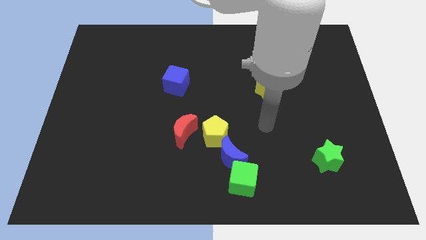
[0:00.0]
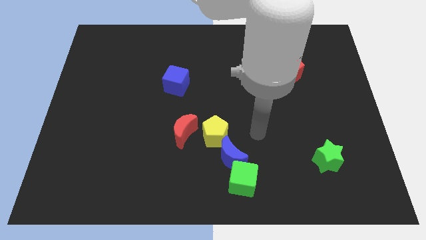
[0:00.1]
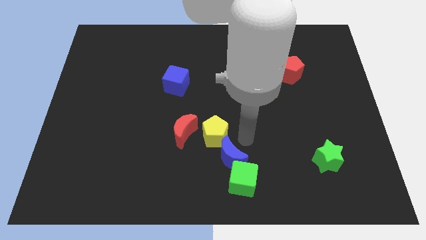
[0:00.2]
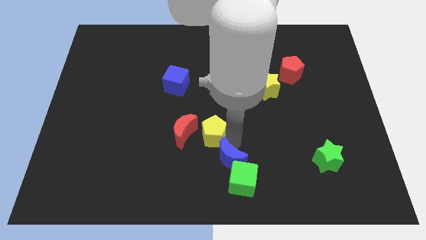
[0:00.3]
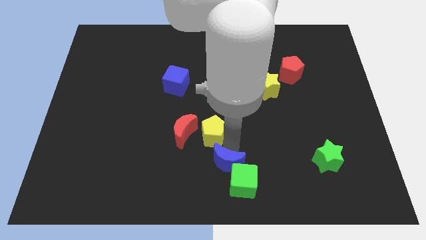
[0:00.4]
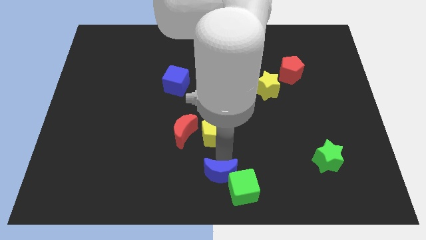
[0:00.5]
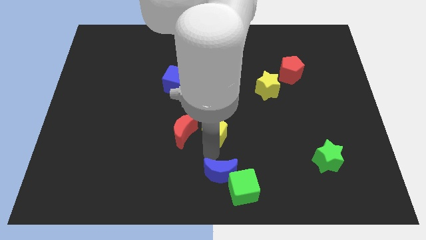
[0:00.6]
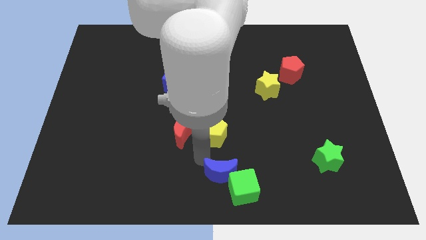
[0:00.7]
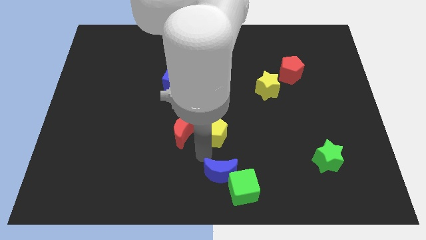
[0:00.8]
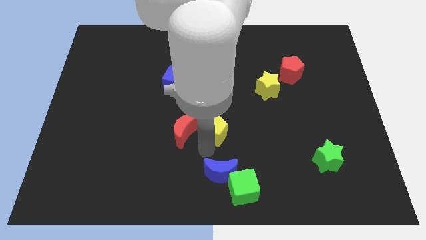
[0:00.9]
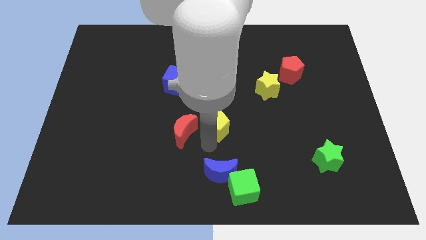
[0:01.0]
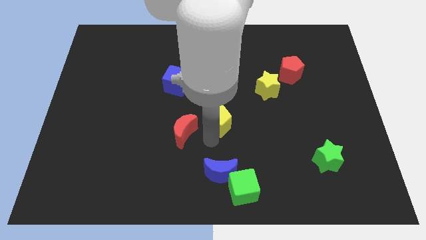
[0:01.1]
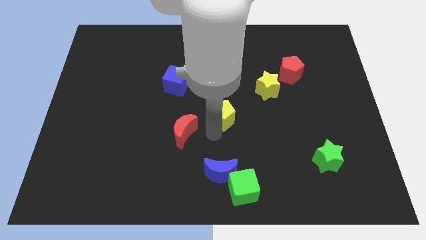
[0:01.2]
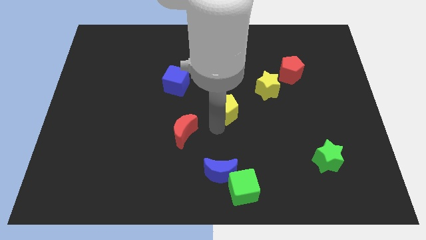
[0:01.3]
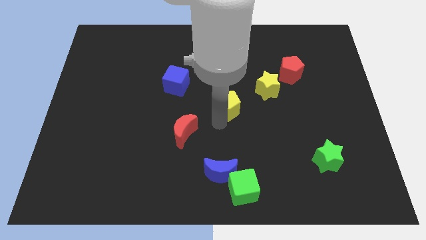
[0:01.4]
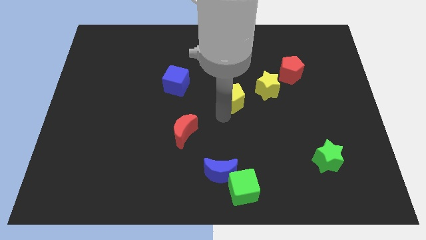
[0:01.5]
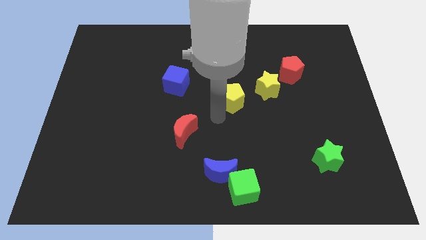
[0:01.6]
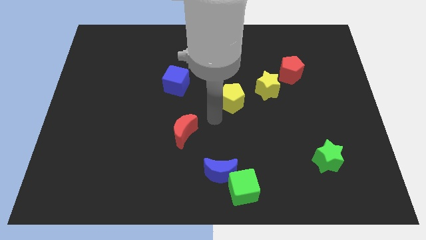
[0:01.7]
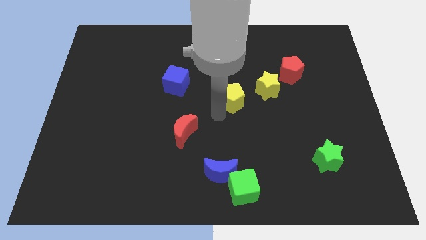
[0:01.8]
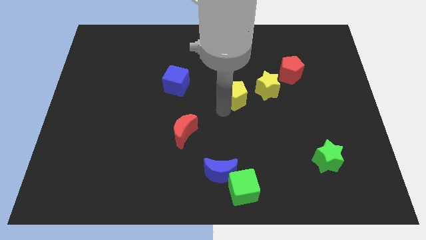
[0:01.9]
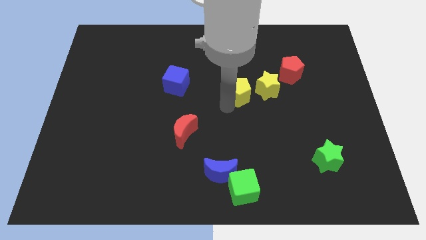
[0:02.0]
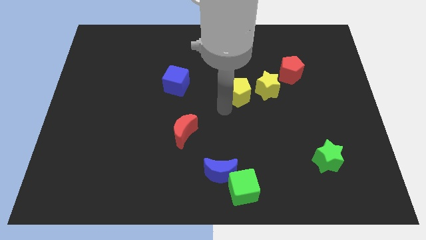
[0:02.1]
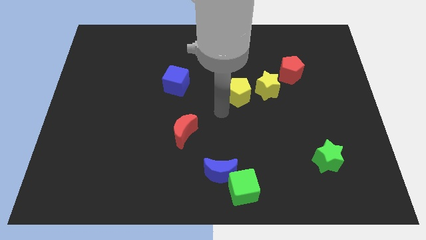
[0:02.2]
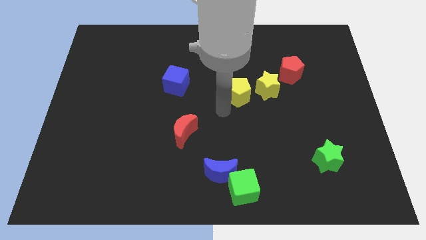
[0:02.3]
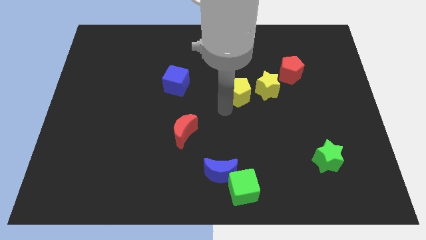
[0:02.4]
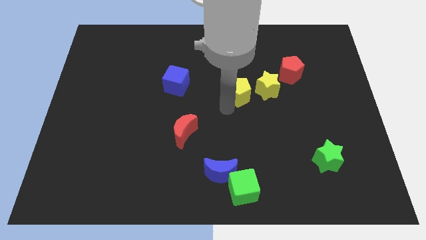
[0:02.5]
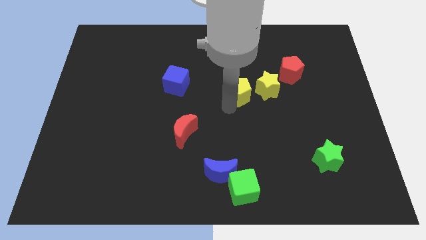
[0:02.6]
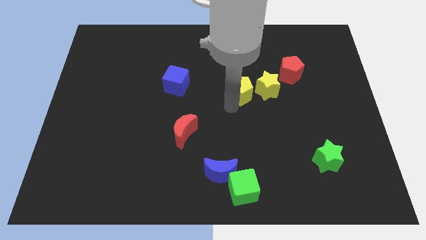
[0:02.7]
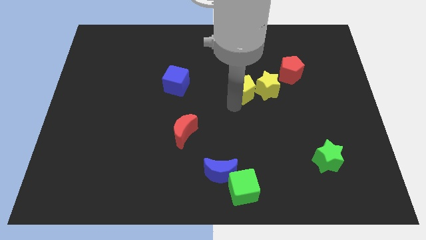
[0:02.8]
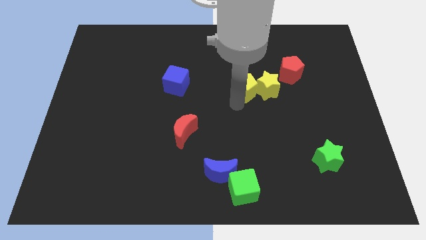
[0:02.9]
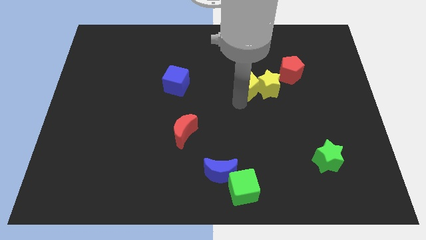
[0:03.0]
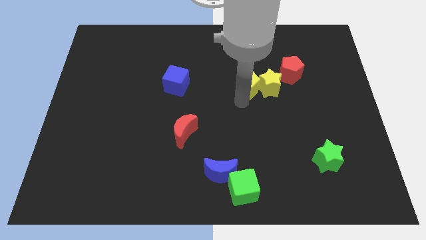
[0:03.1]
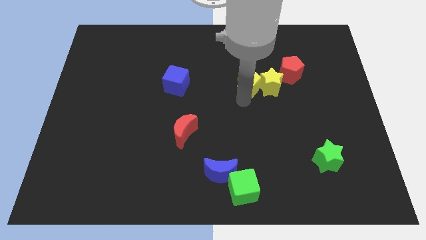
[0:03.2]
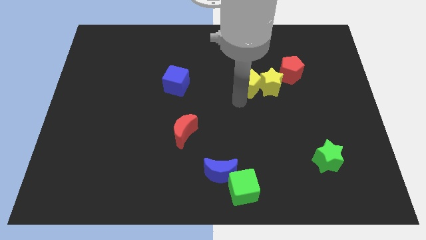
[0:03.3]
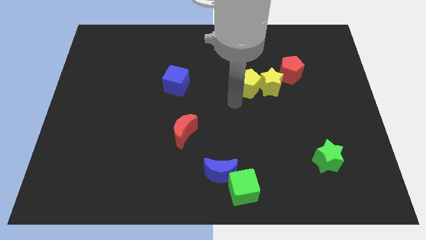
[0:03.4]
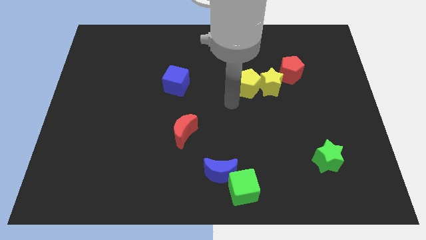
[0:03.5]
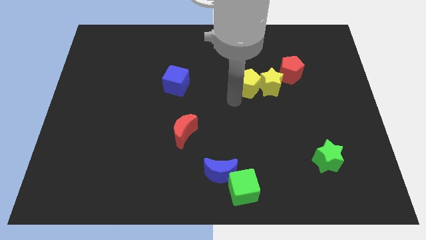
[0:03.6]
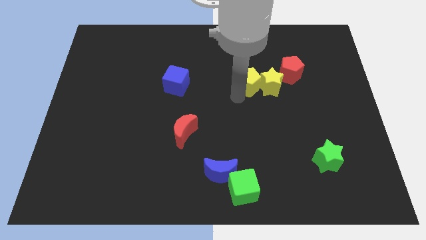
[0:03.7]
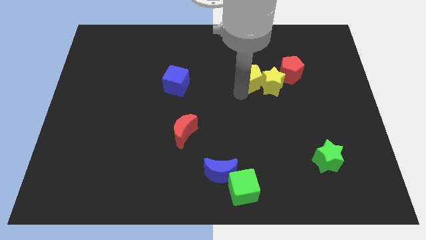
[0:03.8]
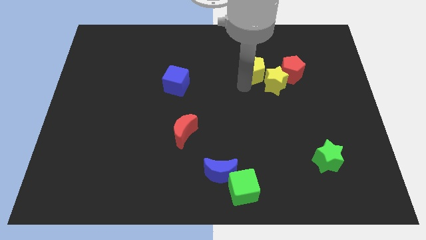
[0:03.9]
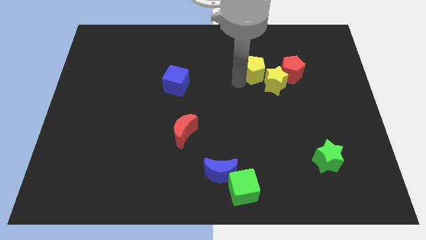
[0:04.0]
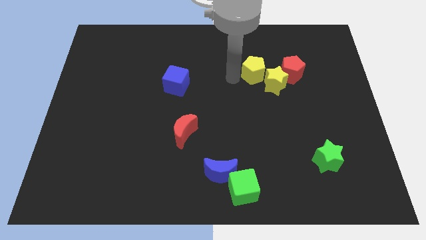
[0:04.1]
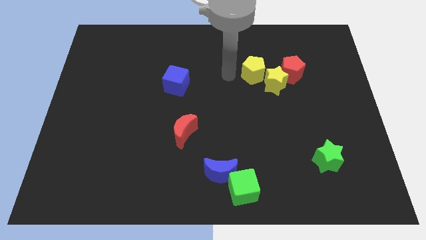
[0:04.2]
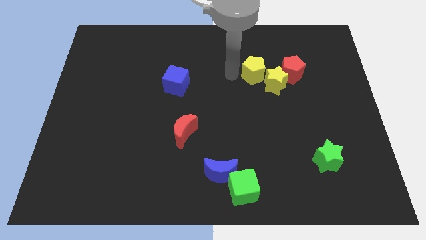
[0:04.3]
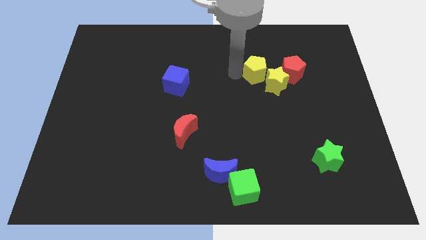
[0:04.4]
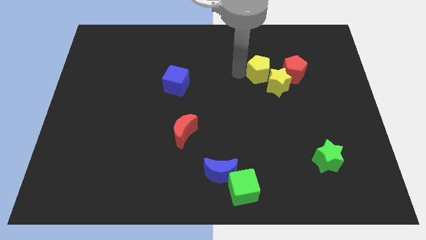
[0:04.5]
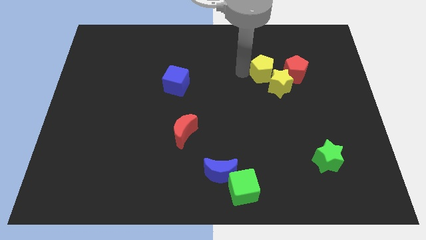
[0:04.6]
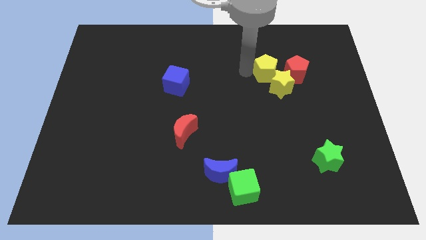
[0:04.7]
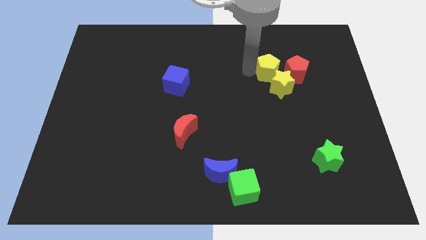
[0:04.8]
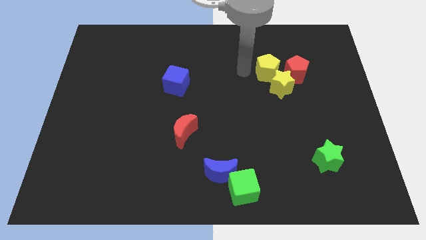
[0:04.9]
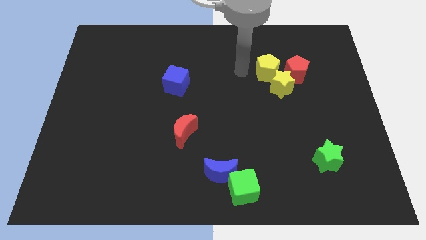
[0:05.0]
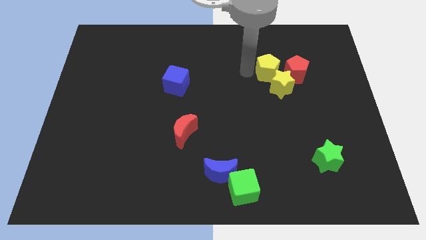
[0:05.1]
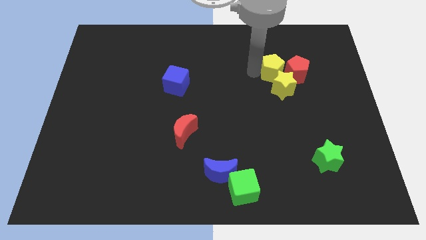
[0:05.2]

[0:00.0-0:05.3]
slide the yellow pentagon to the red pentagon

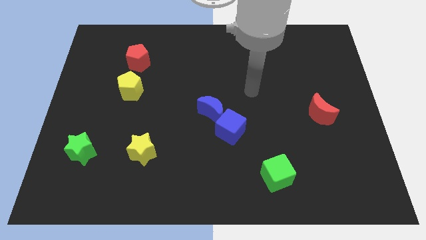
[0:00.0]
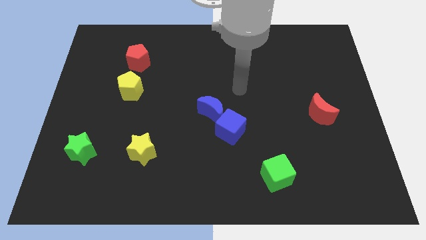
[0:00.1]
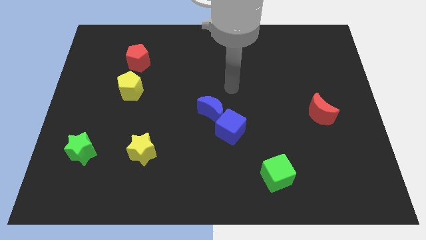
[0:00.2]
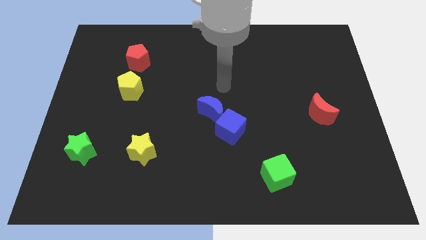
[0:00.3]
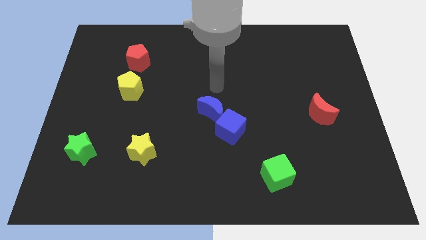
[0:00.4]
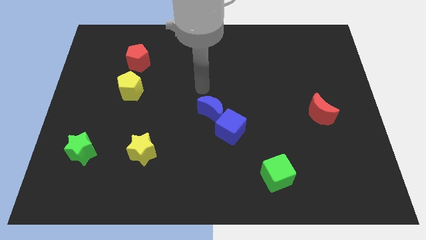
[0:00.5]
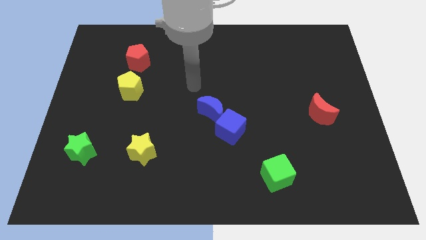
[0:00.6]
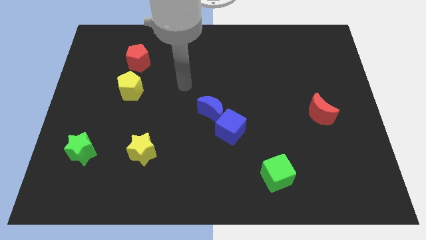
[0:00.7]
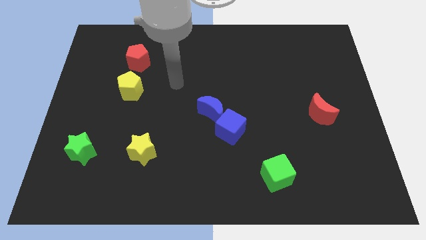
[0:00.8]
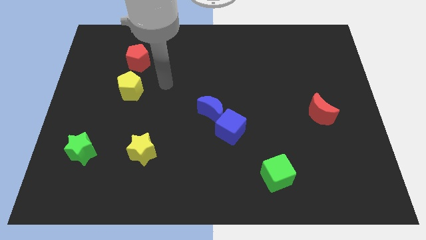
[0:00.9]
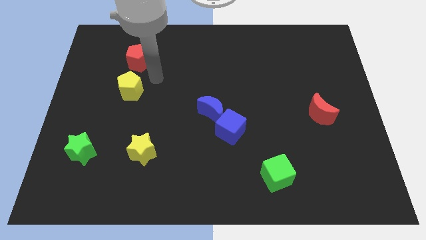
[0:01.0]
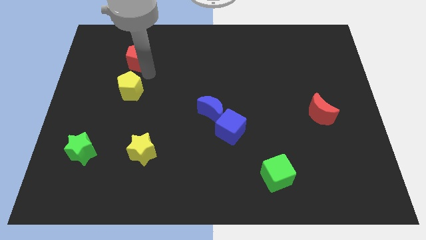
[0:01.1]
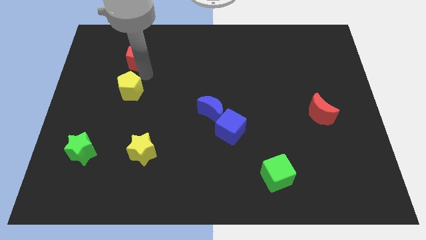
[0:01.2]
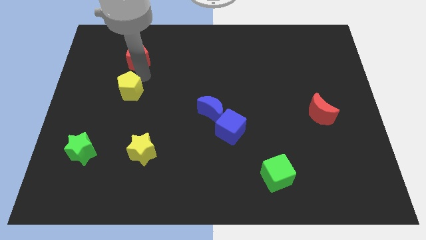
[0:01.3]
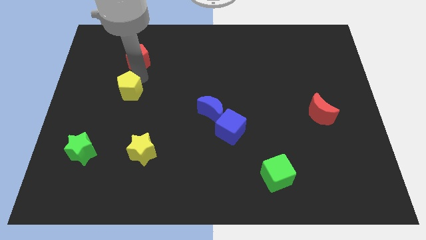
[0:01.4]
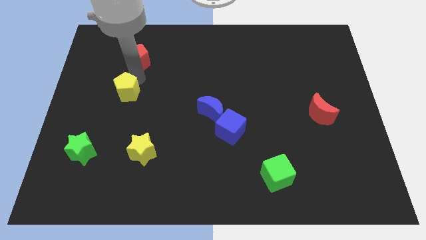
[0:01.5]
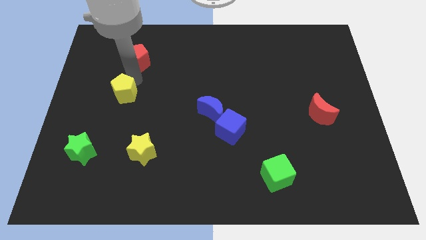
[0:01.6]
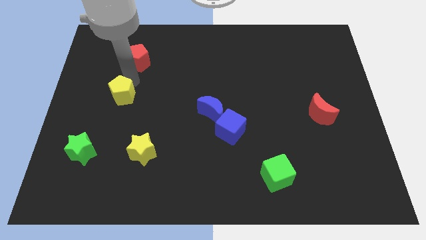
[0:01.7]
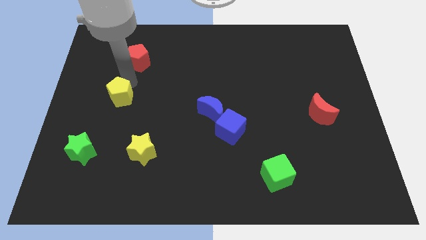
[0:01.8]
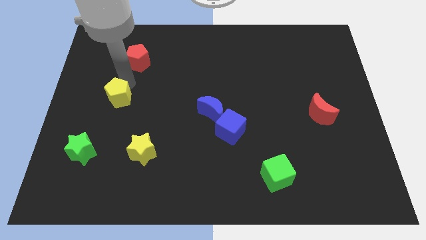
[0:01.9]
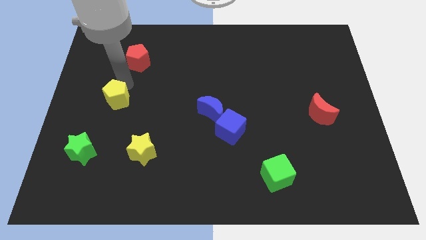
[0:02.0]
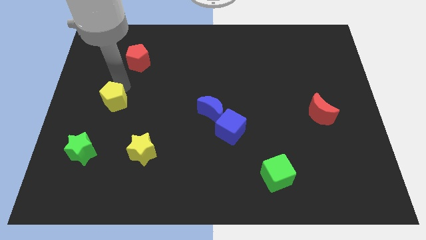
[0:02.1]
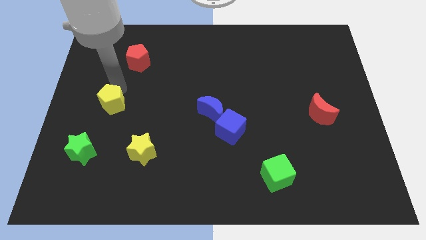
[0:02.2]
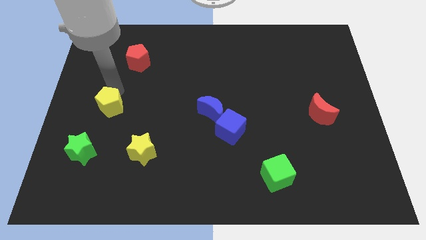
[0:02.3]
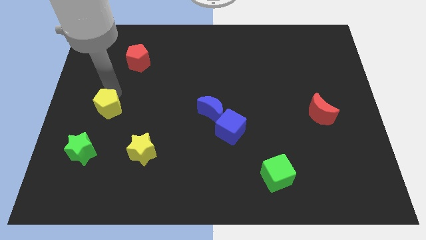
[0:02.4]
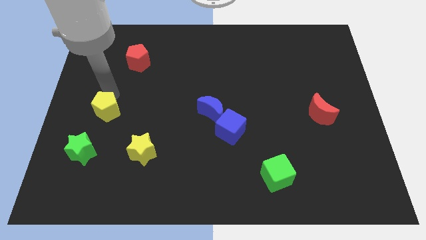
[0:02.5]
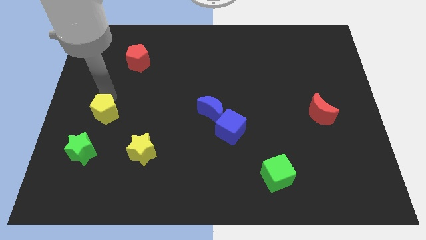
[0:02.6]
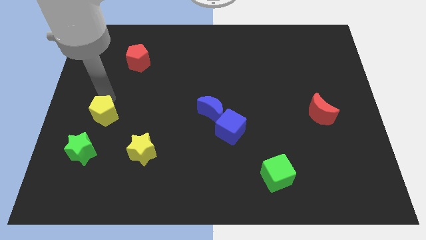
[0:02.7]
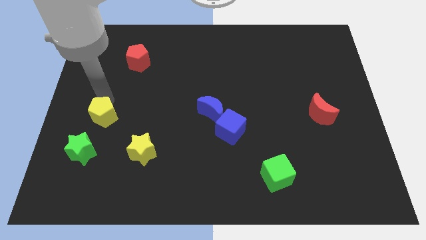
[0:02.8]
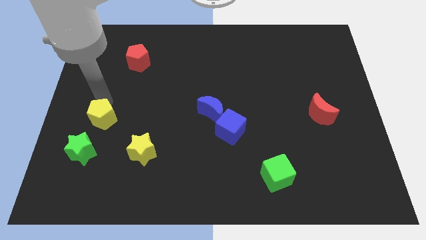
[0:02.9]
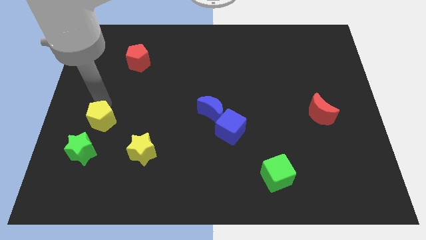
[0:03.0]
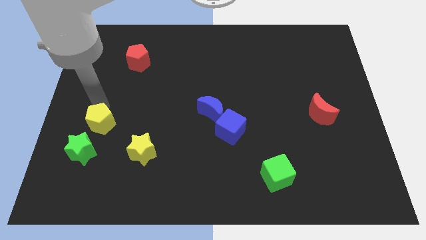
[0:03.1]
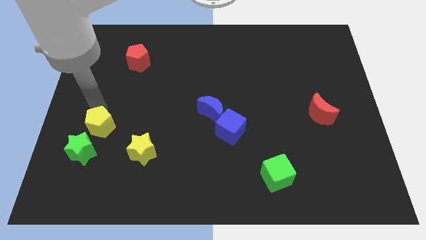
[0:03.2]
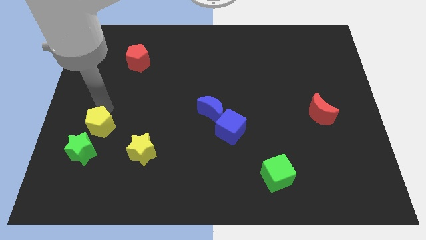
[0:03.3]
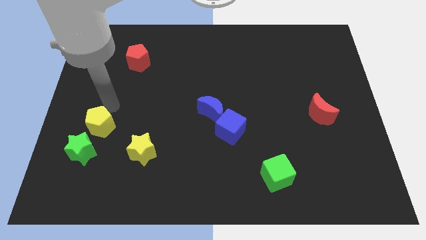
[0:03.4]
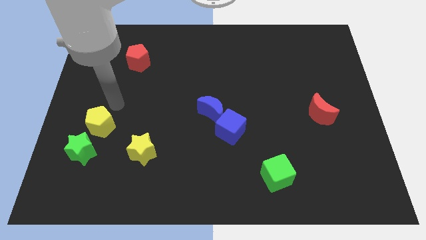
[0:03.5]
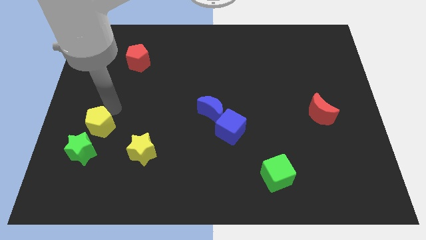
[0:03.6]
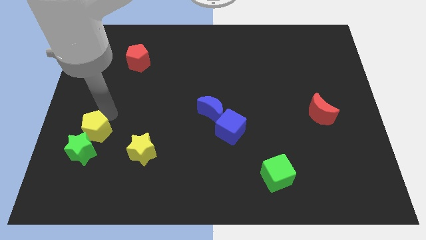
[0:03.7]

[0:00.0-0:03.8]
slide the yellow pentagon to the green star
